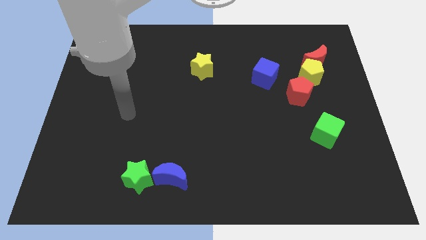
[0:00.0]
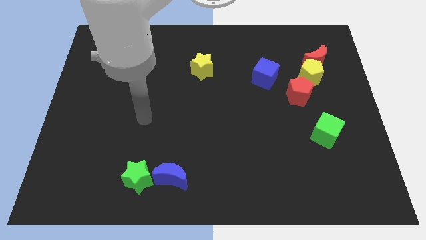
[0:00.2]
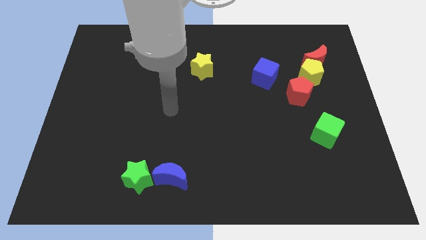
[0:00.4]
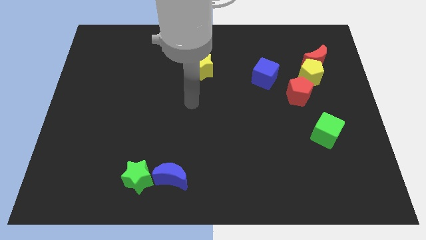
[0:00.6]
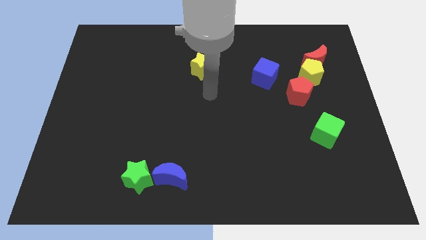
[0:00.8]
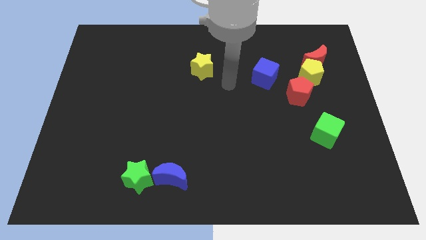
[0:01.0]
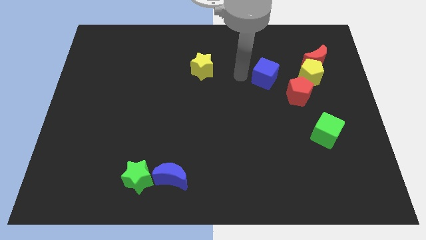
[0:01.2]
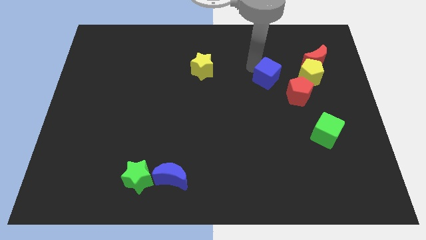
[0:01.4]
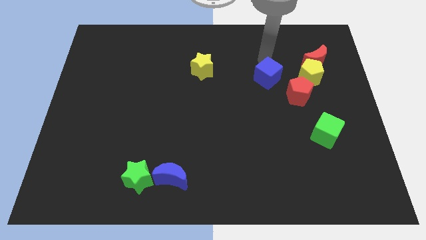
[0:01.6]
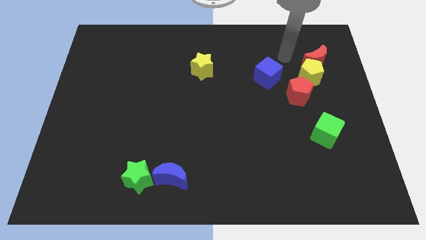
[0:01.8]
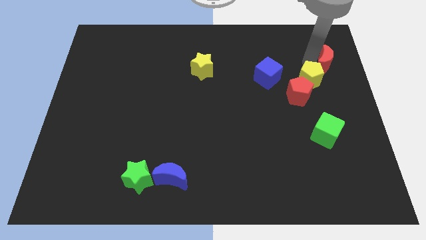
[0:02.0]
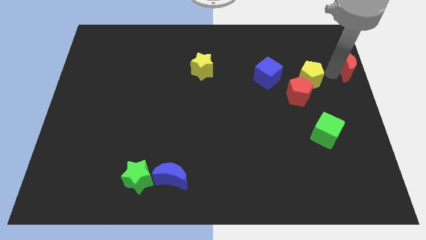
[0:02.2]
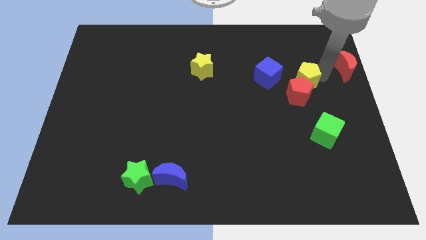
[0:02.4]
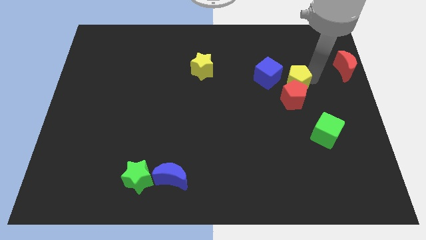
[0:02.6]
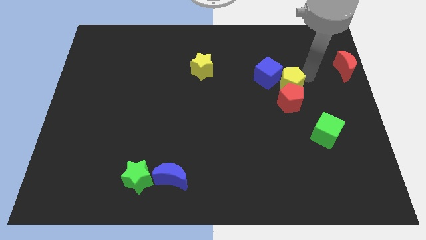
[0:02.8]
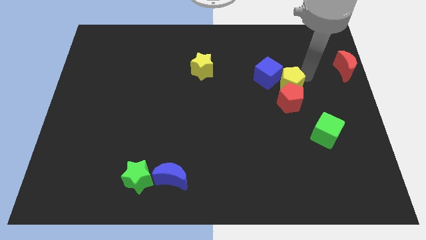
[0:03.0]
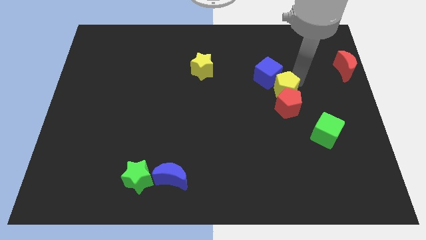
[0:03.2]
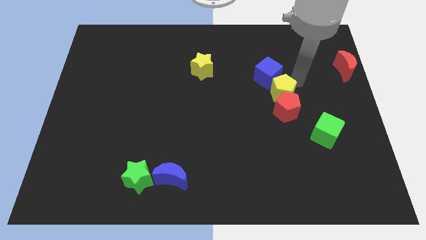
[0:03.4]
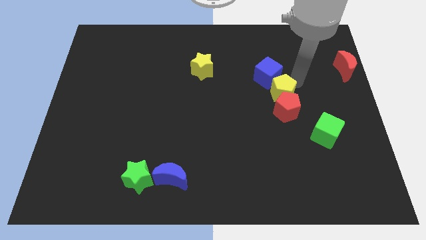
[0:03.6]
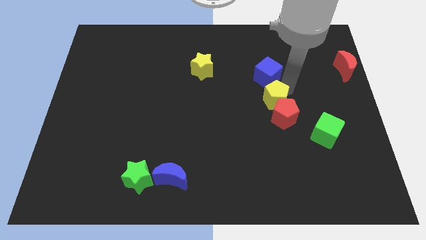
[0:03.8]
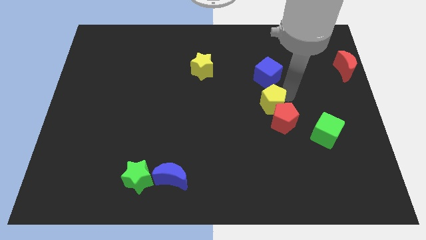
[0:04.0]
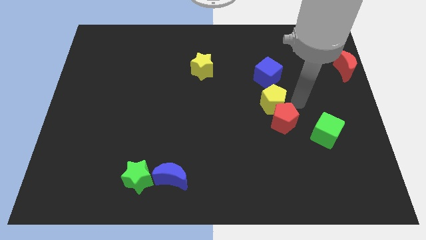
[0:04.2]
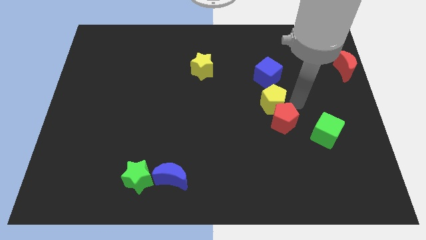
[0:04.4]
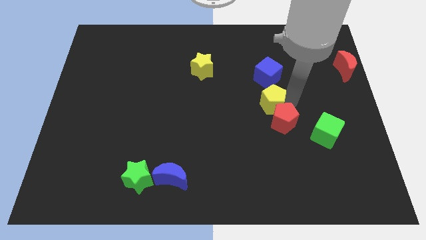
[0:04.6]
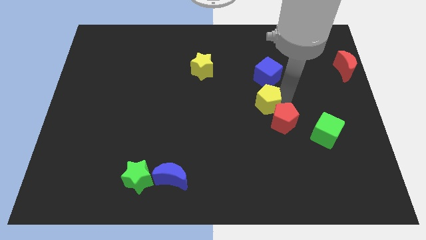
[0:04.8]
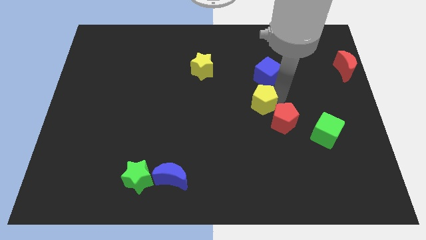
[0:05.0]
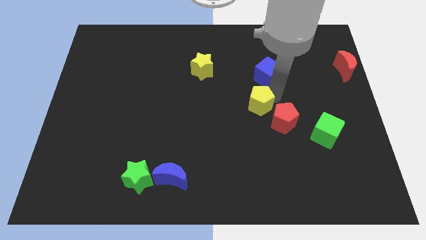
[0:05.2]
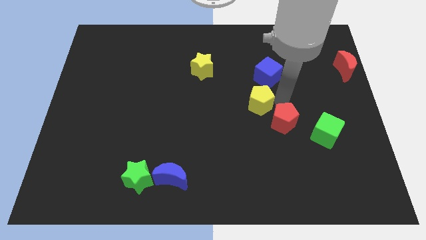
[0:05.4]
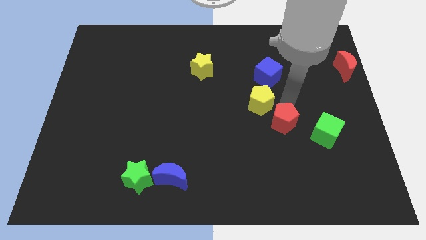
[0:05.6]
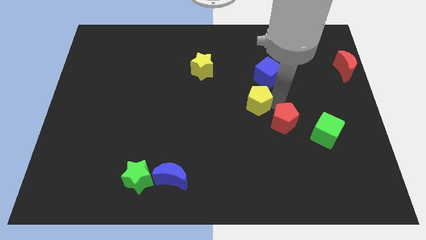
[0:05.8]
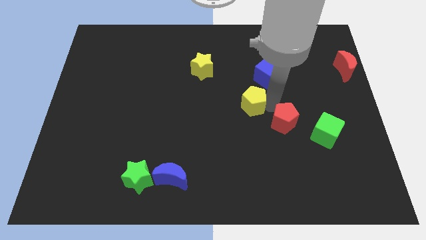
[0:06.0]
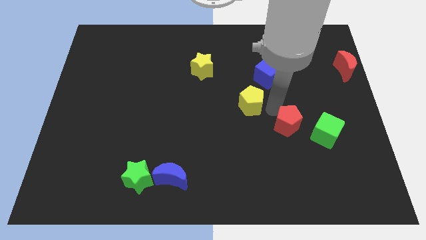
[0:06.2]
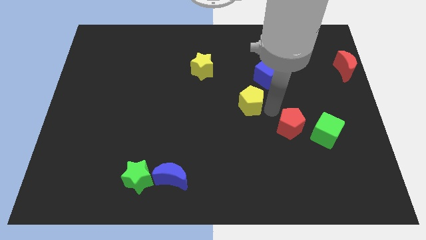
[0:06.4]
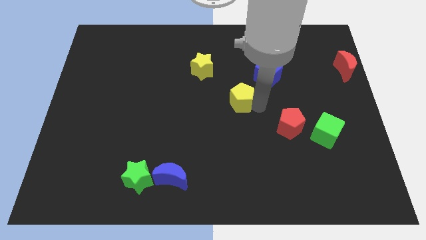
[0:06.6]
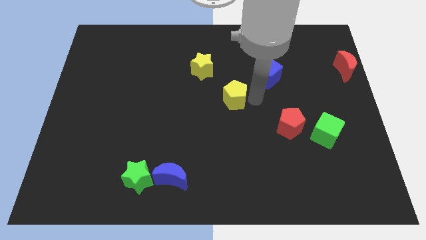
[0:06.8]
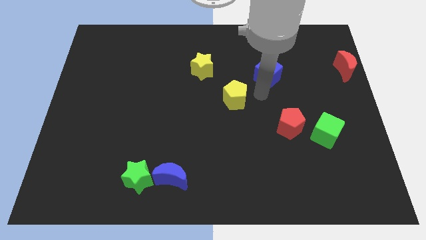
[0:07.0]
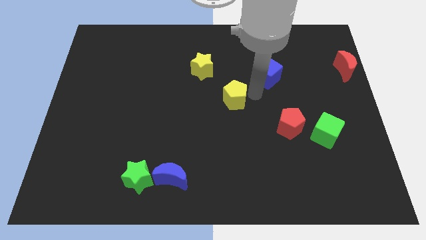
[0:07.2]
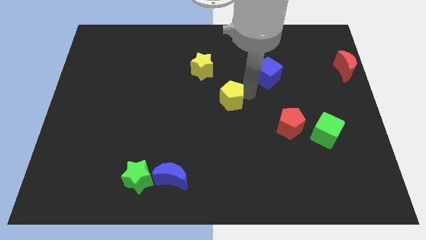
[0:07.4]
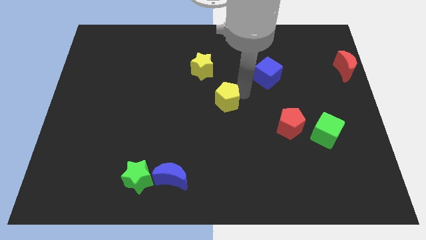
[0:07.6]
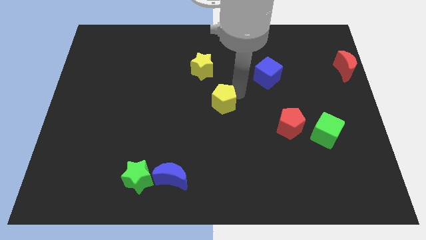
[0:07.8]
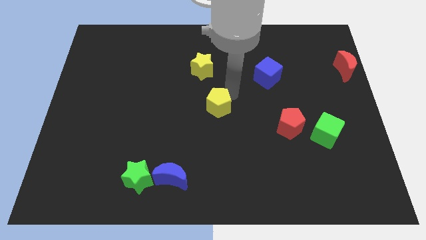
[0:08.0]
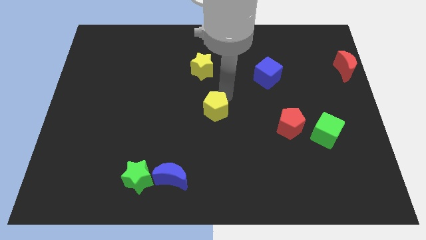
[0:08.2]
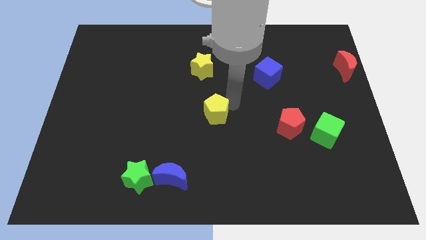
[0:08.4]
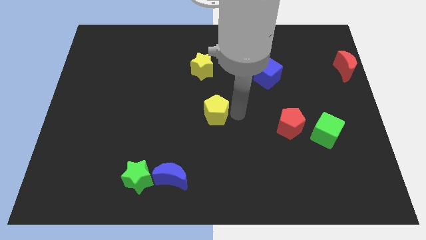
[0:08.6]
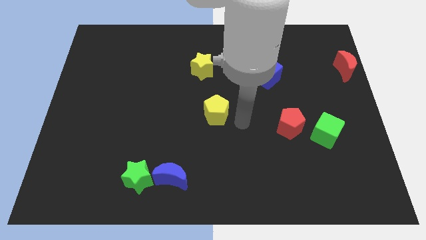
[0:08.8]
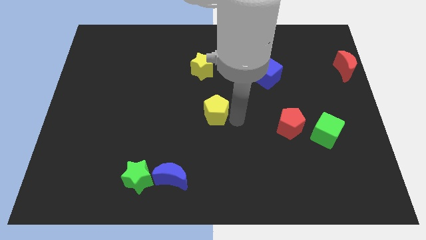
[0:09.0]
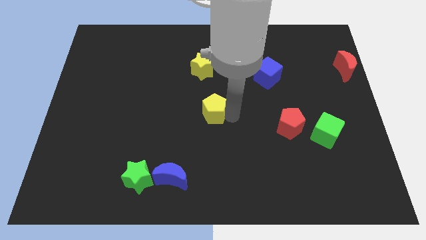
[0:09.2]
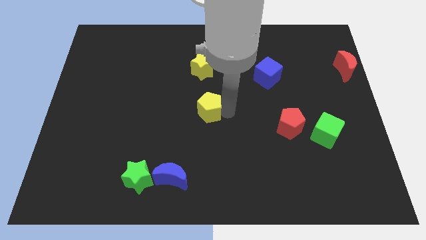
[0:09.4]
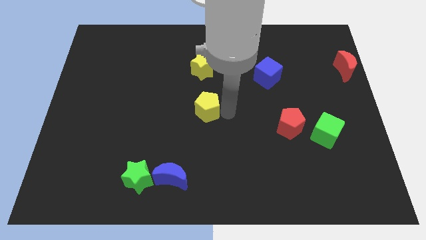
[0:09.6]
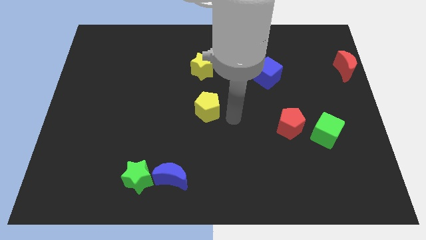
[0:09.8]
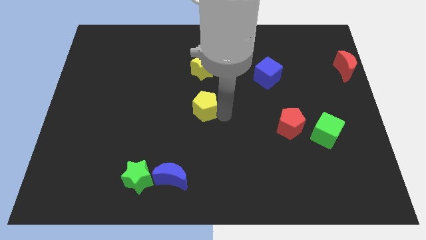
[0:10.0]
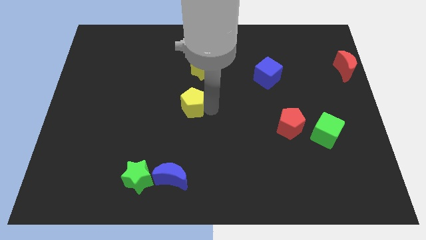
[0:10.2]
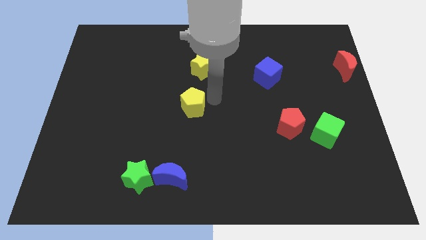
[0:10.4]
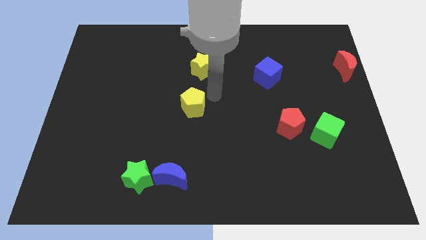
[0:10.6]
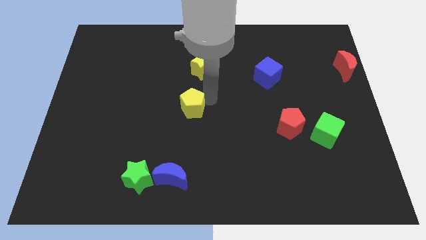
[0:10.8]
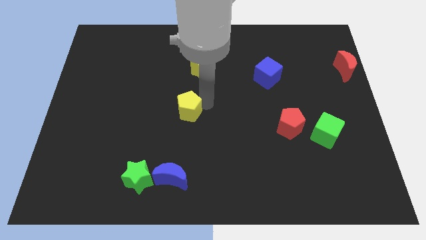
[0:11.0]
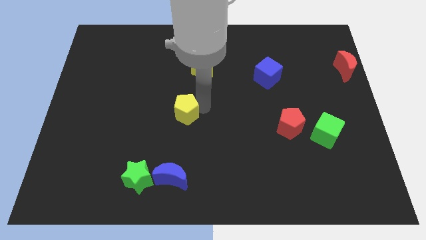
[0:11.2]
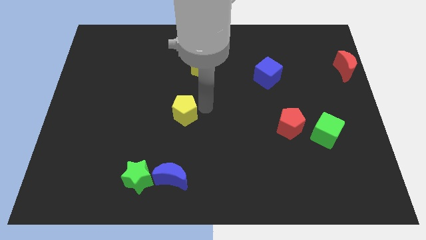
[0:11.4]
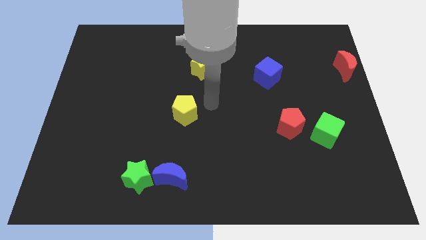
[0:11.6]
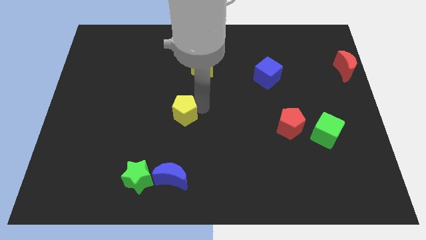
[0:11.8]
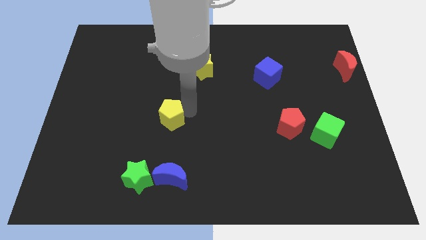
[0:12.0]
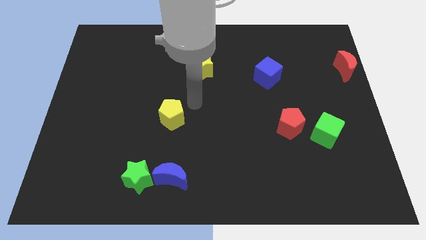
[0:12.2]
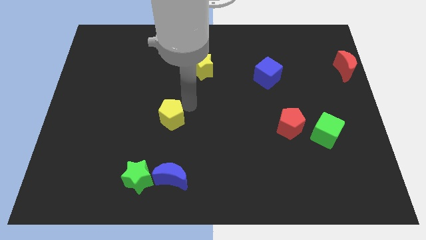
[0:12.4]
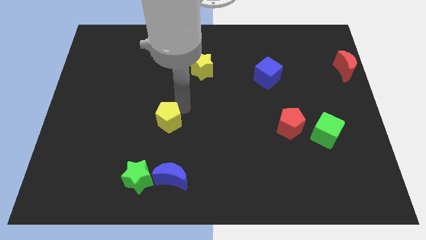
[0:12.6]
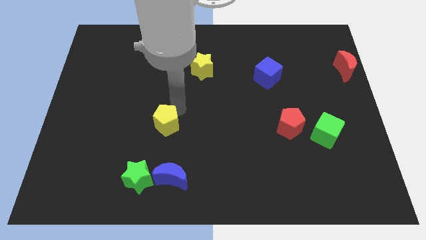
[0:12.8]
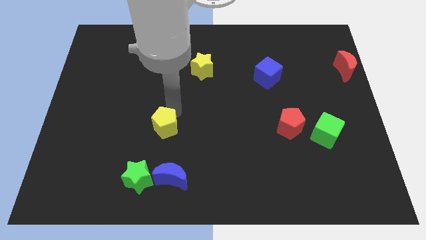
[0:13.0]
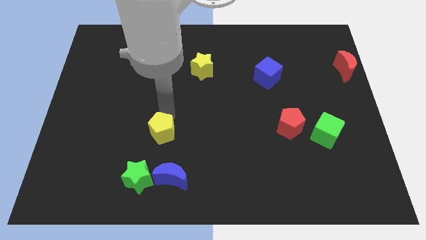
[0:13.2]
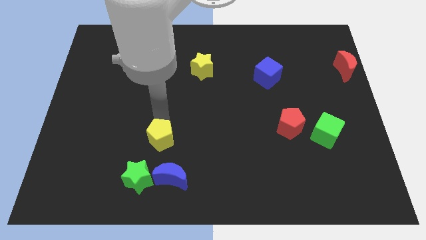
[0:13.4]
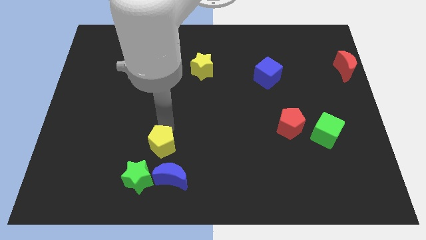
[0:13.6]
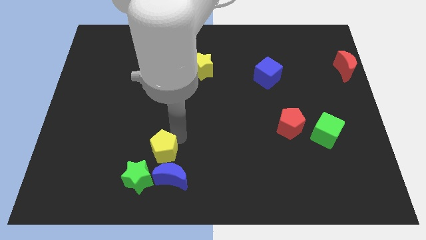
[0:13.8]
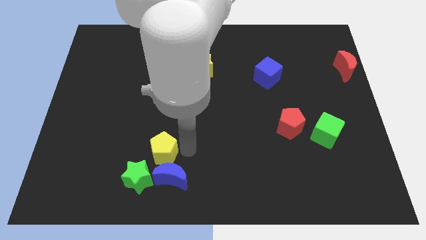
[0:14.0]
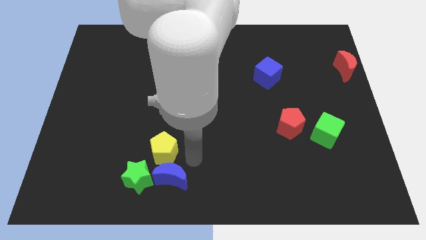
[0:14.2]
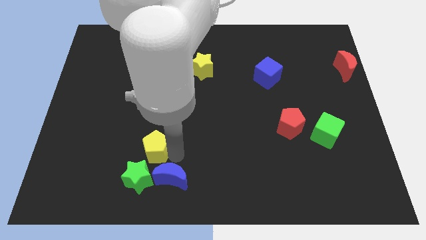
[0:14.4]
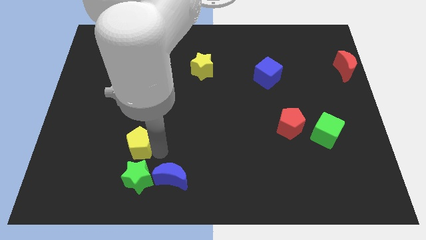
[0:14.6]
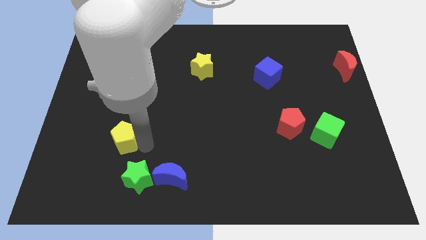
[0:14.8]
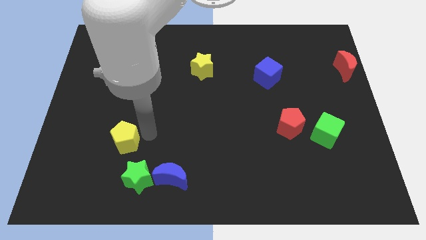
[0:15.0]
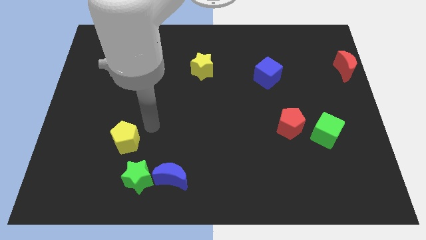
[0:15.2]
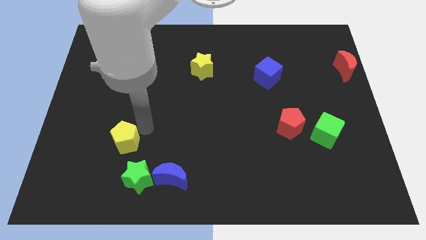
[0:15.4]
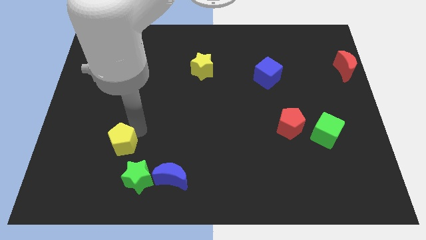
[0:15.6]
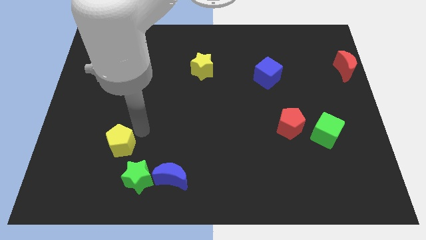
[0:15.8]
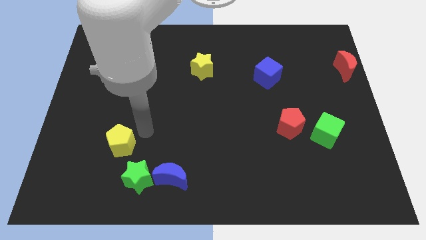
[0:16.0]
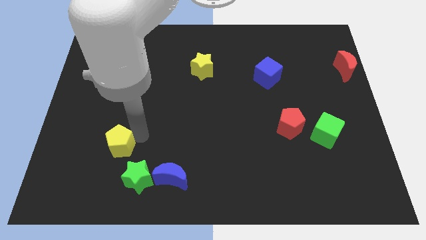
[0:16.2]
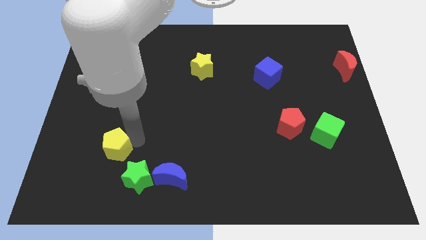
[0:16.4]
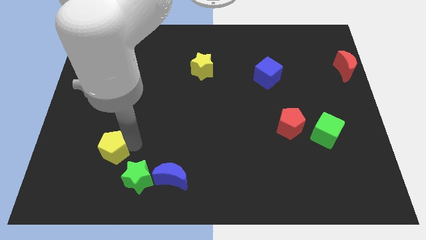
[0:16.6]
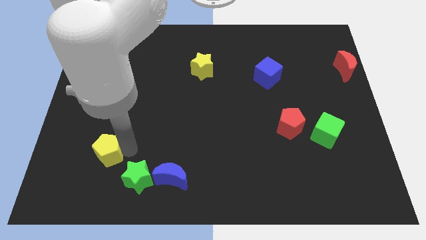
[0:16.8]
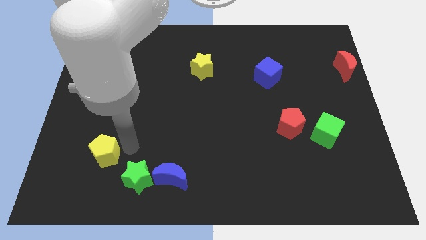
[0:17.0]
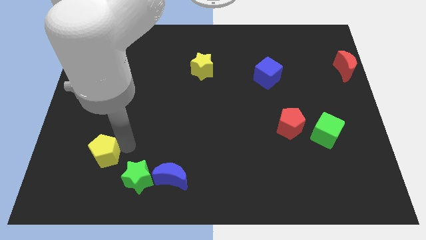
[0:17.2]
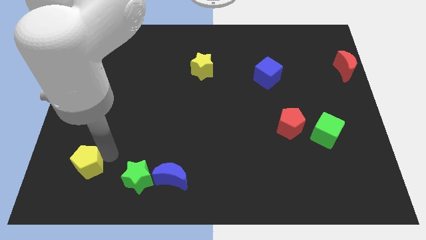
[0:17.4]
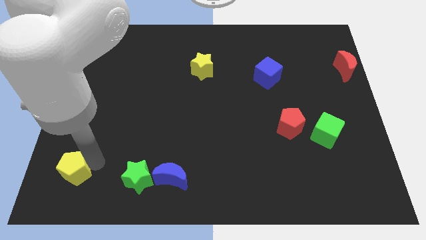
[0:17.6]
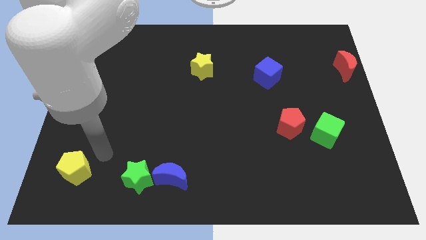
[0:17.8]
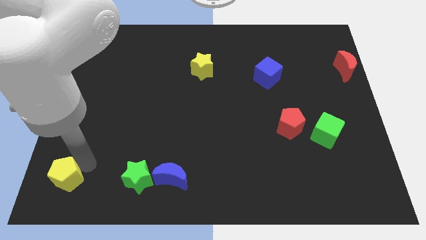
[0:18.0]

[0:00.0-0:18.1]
put the yellow pentagon to the bottom left of the board
